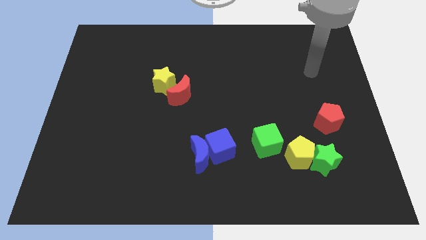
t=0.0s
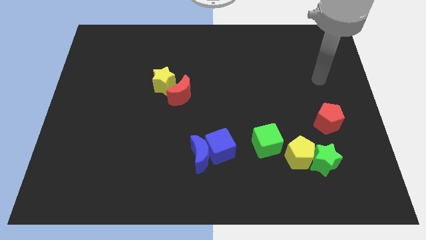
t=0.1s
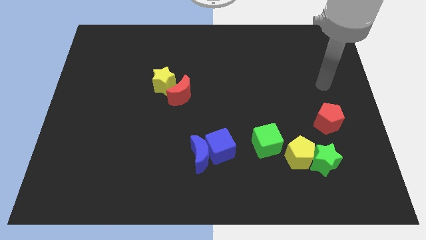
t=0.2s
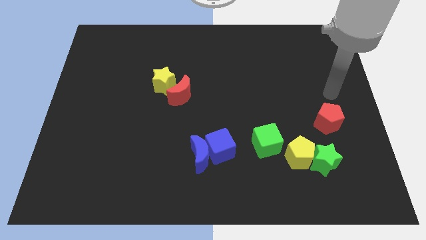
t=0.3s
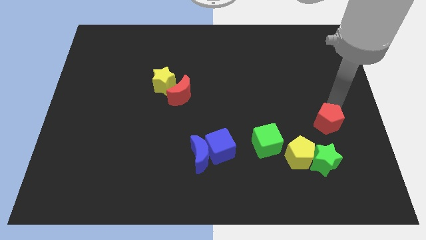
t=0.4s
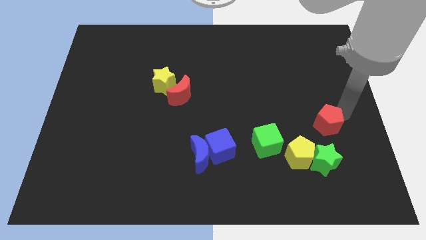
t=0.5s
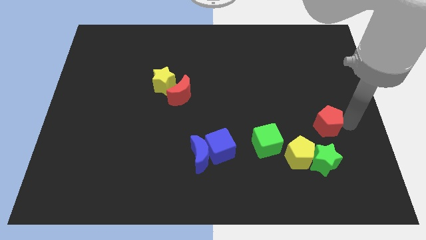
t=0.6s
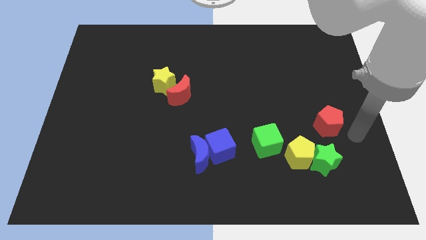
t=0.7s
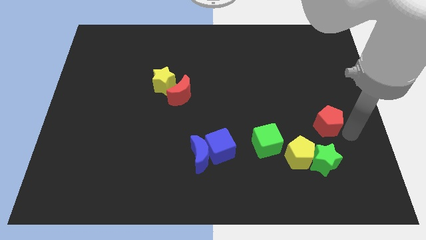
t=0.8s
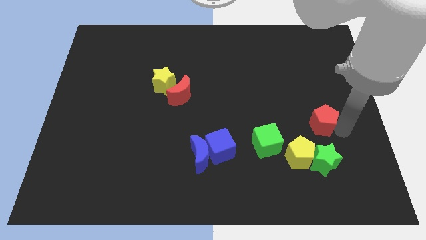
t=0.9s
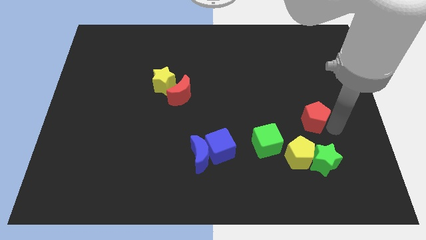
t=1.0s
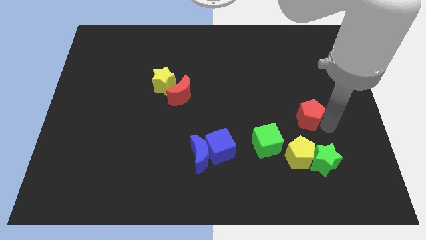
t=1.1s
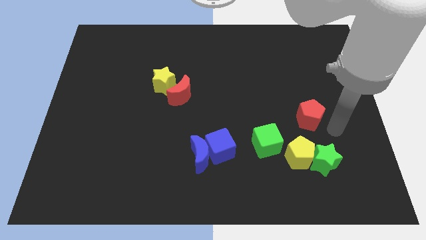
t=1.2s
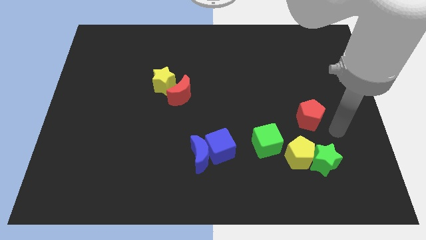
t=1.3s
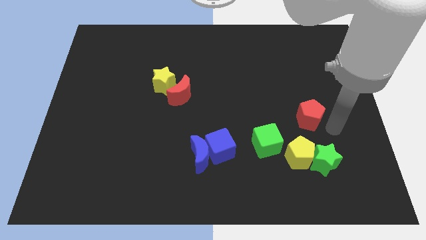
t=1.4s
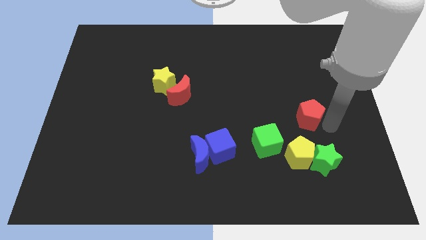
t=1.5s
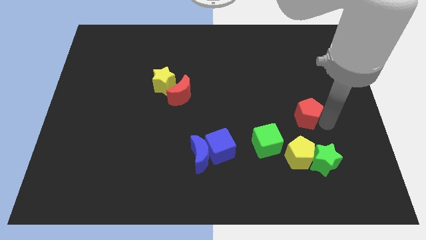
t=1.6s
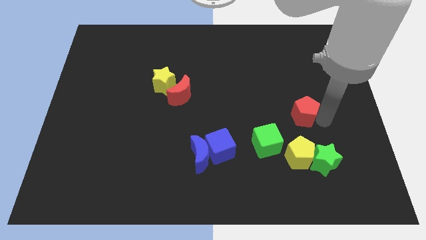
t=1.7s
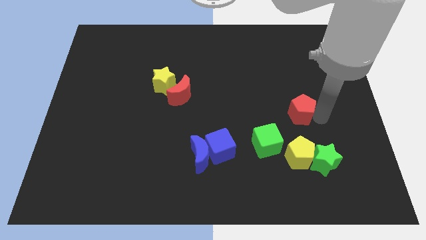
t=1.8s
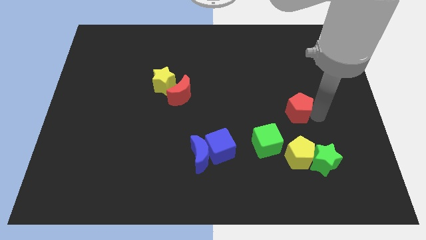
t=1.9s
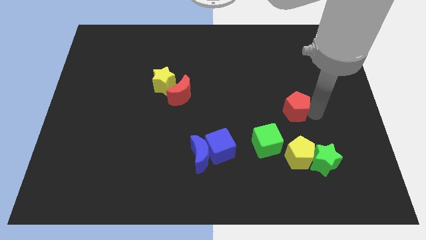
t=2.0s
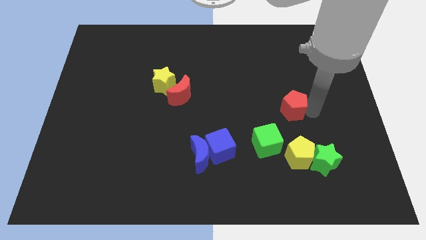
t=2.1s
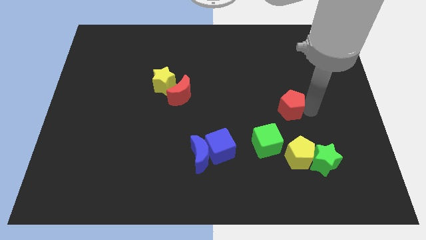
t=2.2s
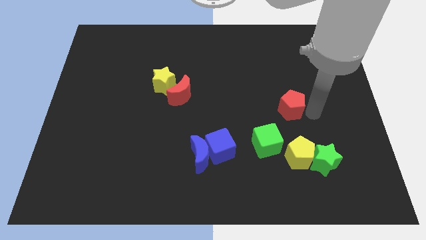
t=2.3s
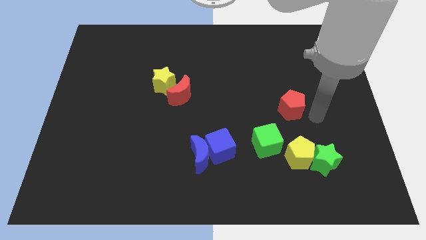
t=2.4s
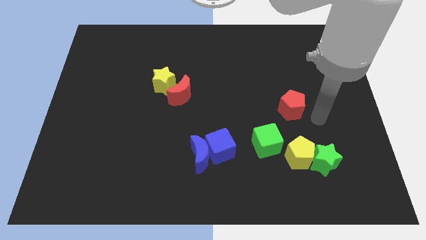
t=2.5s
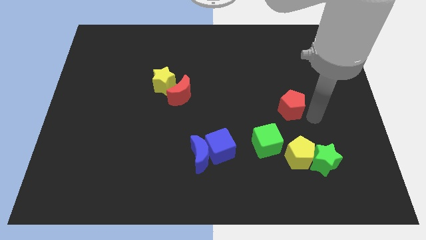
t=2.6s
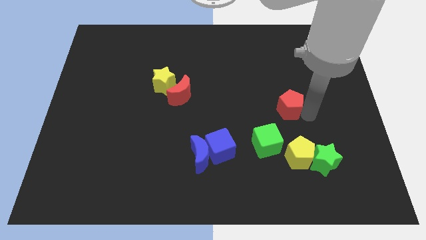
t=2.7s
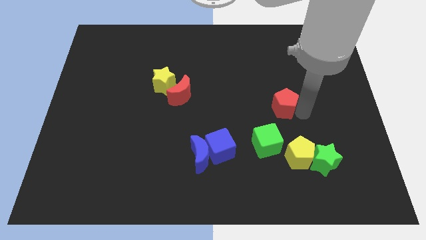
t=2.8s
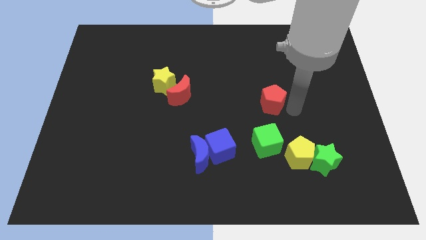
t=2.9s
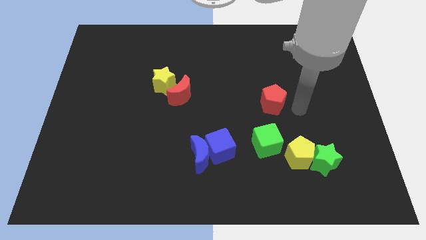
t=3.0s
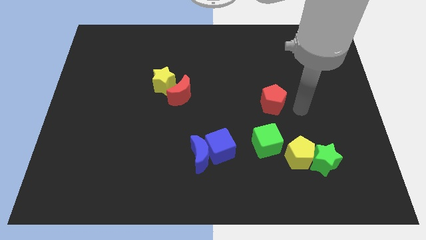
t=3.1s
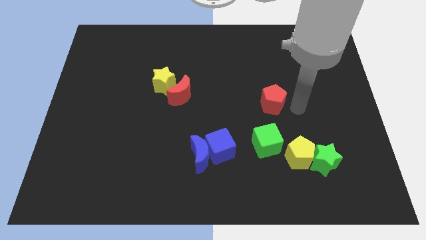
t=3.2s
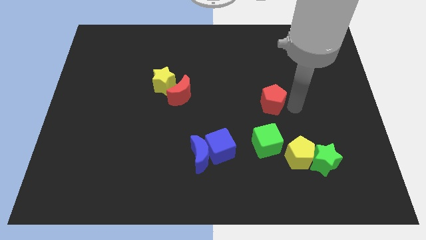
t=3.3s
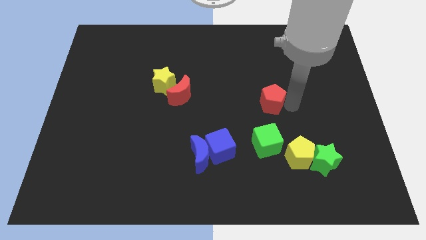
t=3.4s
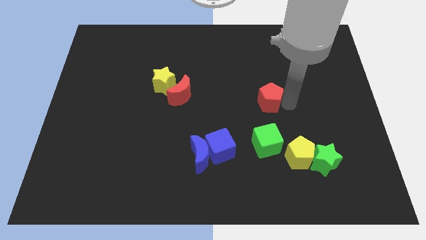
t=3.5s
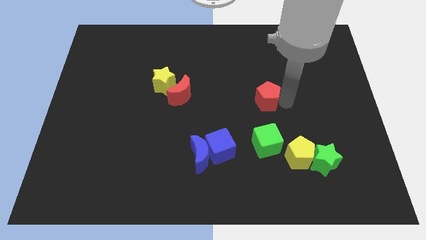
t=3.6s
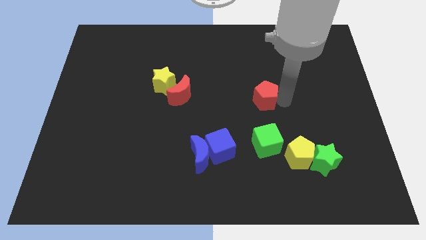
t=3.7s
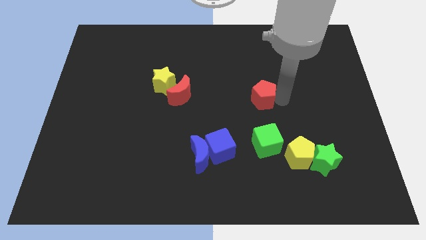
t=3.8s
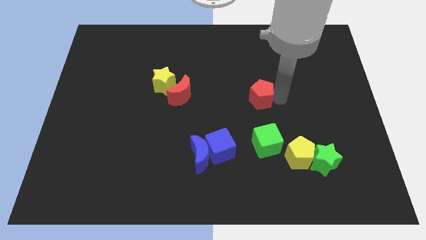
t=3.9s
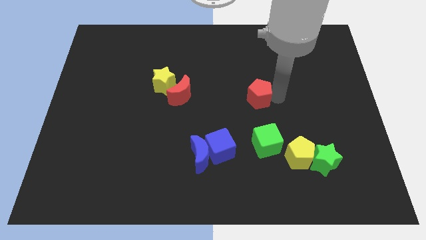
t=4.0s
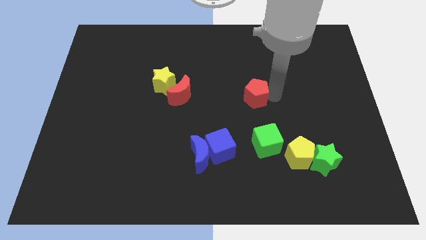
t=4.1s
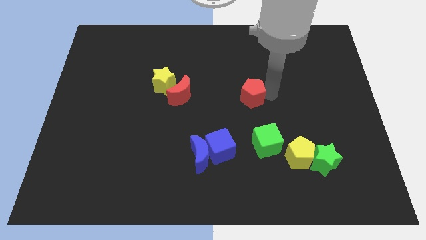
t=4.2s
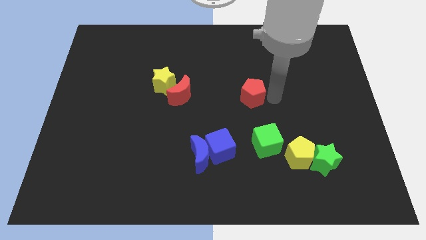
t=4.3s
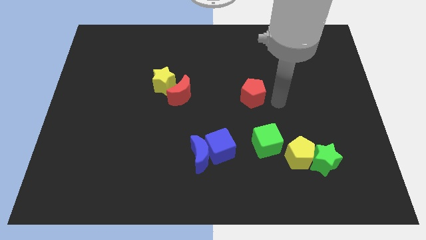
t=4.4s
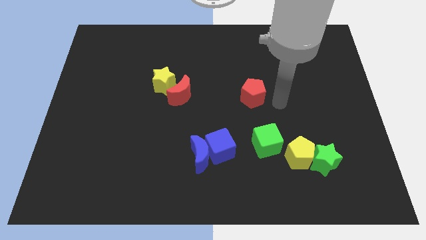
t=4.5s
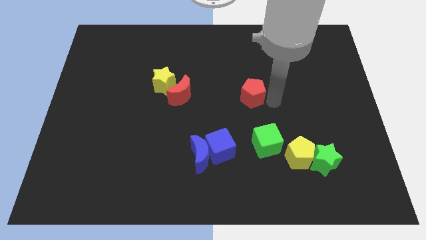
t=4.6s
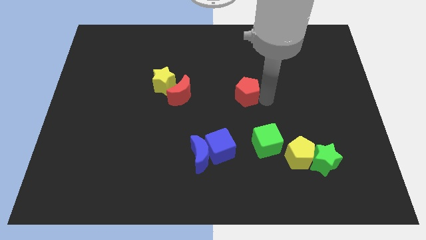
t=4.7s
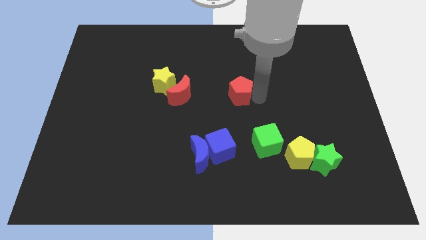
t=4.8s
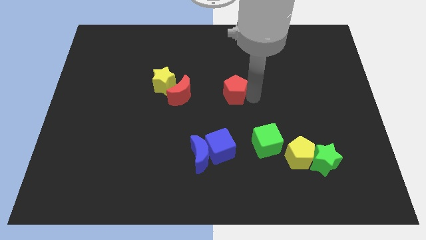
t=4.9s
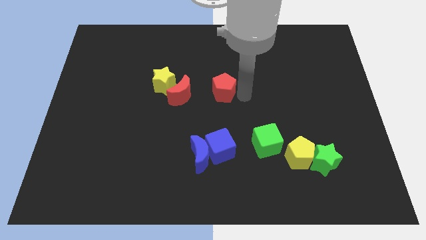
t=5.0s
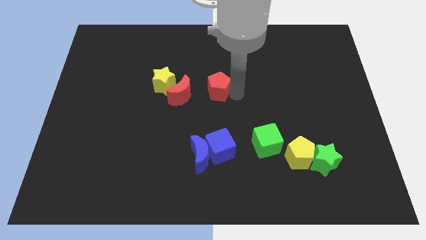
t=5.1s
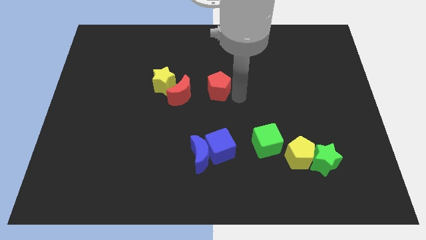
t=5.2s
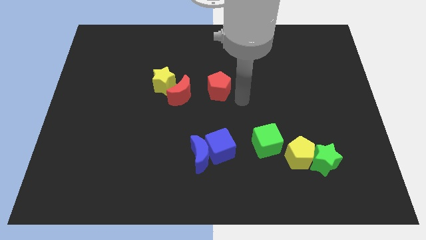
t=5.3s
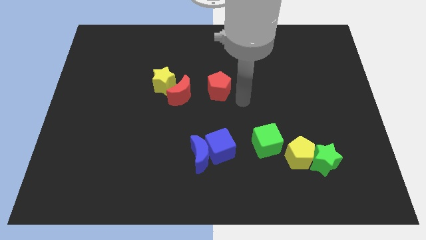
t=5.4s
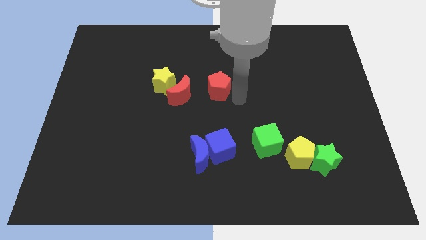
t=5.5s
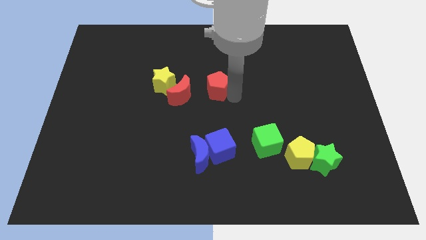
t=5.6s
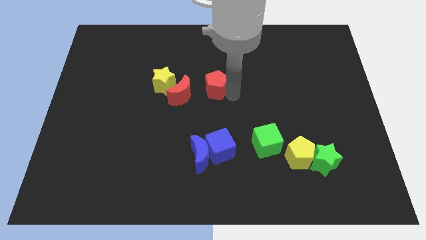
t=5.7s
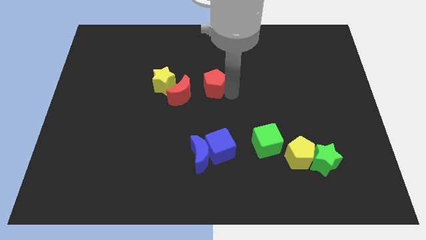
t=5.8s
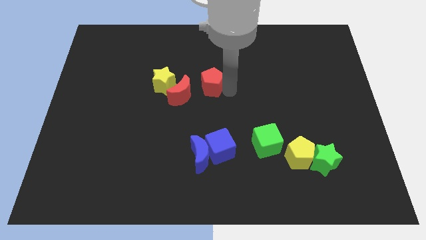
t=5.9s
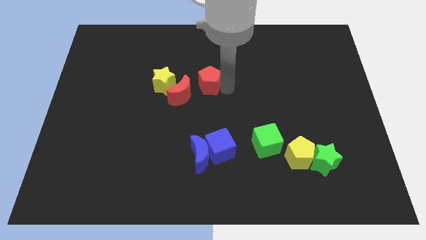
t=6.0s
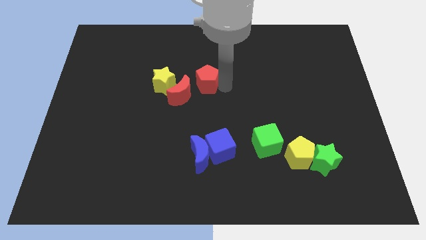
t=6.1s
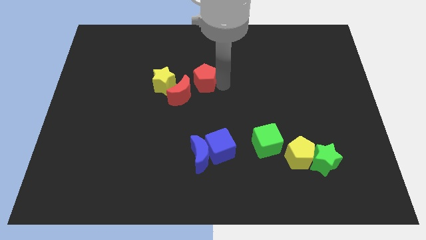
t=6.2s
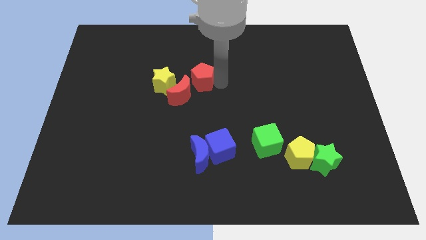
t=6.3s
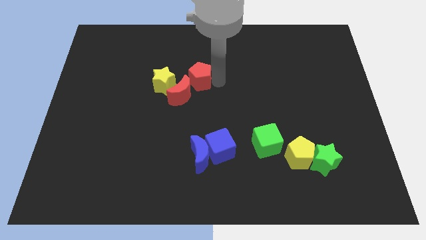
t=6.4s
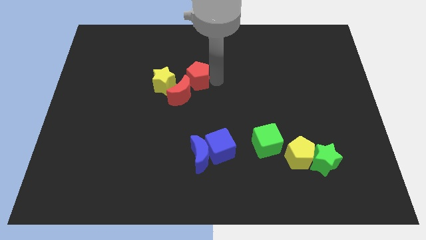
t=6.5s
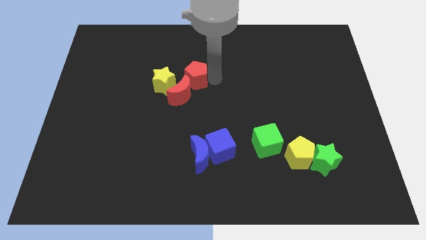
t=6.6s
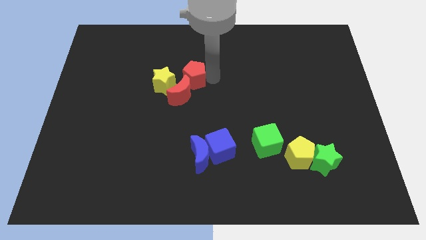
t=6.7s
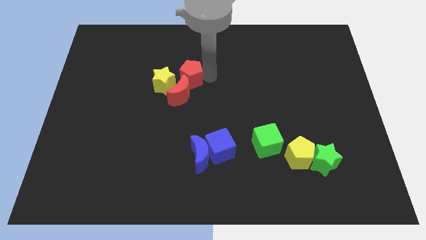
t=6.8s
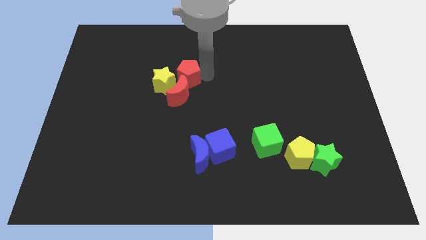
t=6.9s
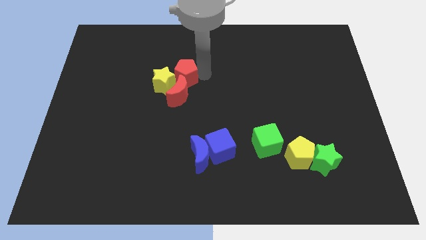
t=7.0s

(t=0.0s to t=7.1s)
push the red pentagon next to the yellow star
